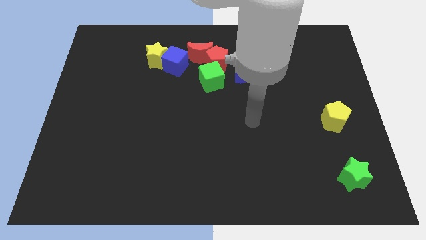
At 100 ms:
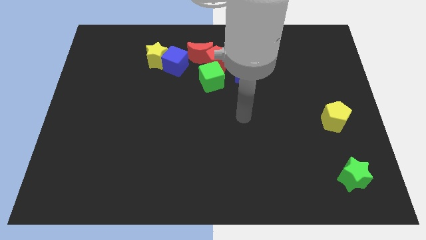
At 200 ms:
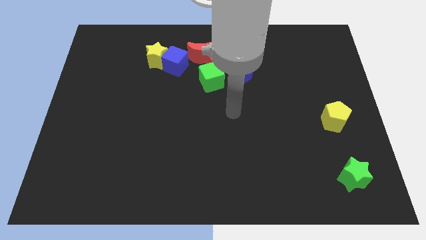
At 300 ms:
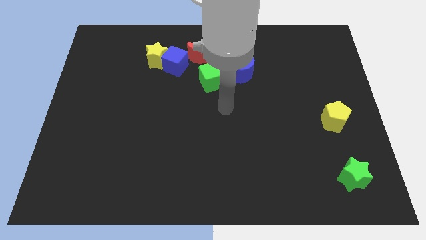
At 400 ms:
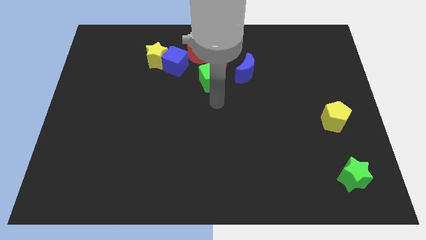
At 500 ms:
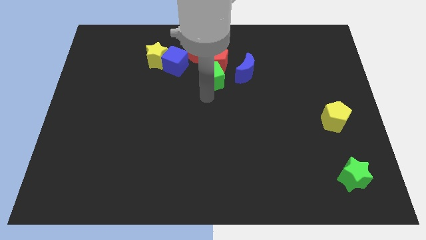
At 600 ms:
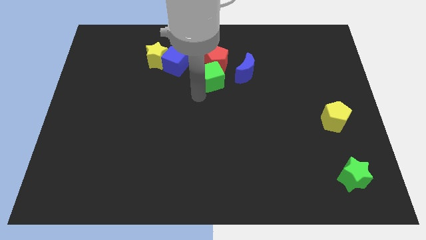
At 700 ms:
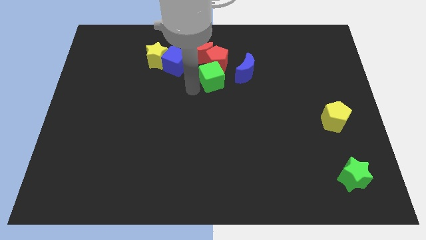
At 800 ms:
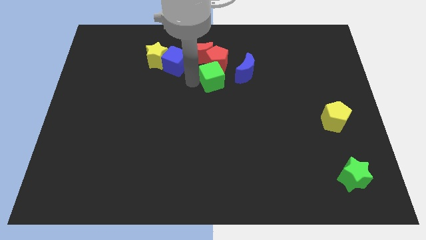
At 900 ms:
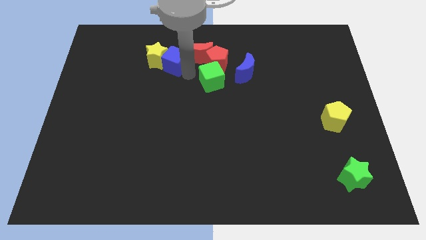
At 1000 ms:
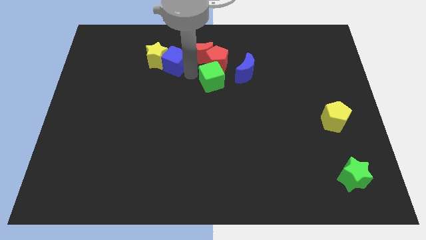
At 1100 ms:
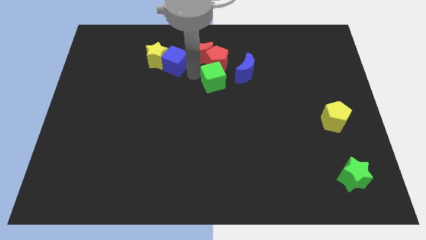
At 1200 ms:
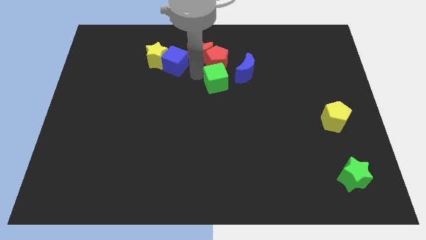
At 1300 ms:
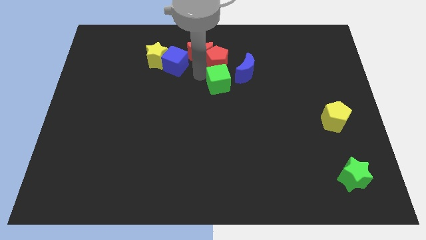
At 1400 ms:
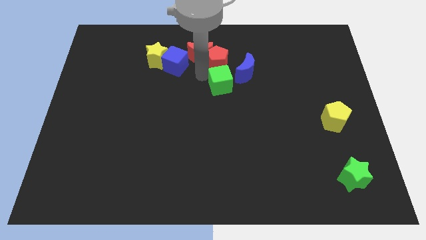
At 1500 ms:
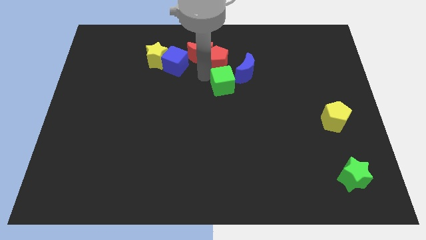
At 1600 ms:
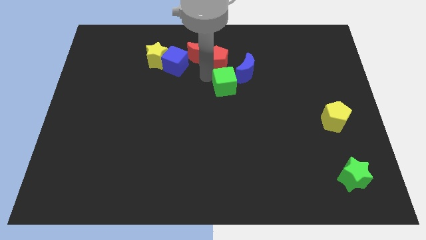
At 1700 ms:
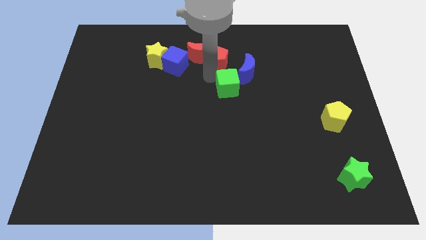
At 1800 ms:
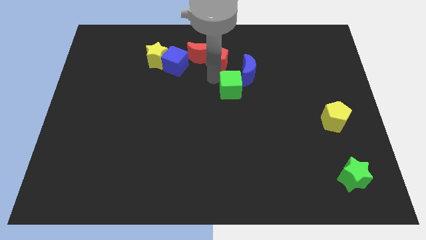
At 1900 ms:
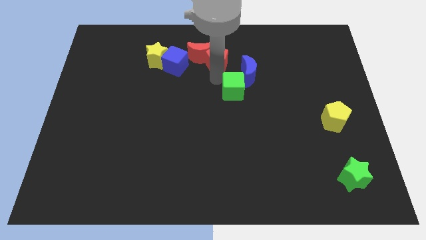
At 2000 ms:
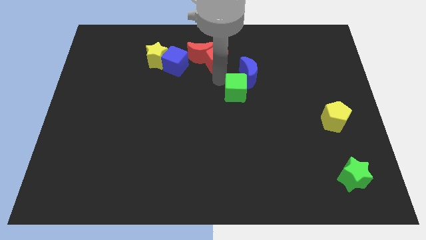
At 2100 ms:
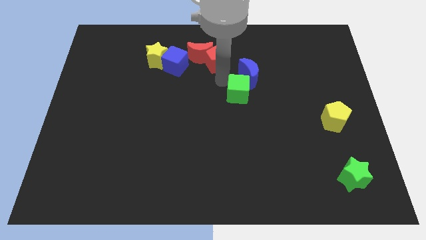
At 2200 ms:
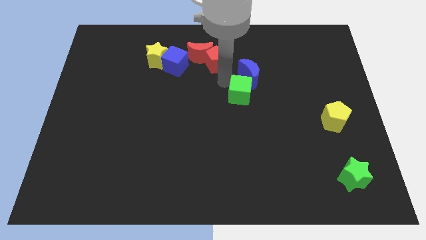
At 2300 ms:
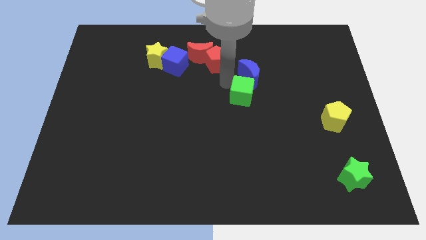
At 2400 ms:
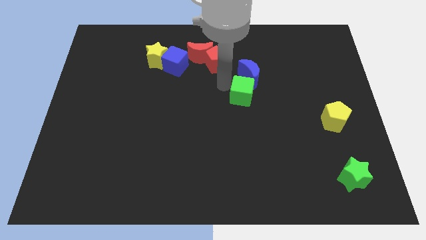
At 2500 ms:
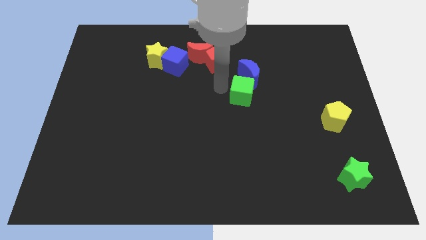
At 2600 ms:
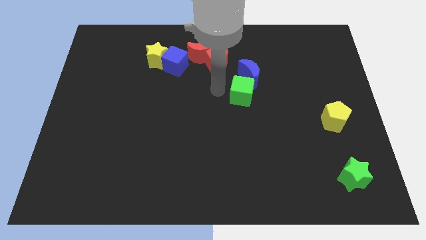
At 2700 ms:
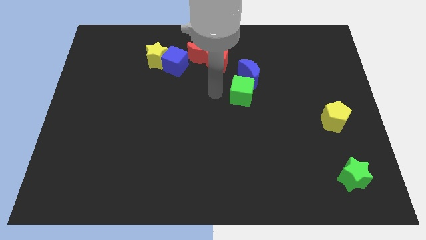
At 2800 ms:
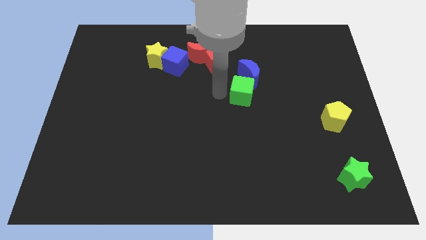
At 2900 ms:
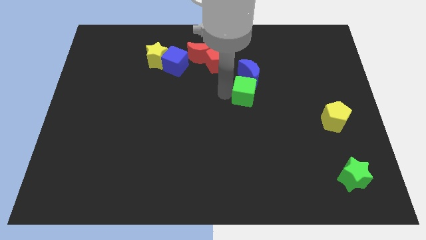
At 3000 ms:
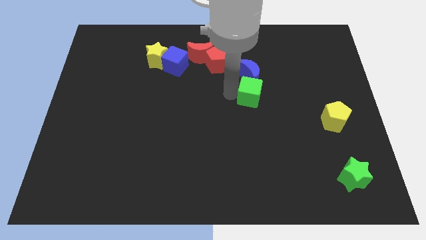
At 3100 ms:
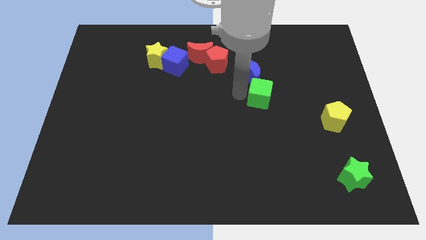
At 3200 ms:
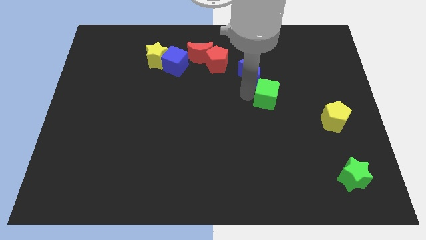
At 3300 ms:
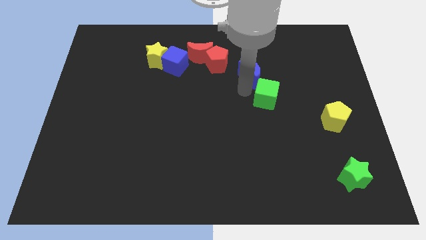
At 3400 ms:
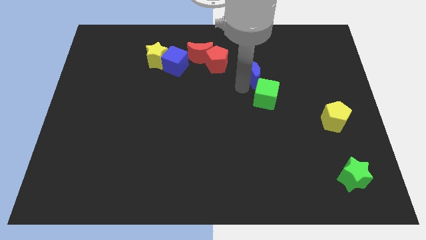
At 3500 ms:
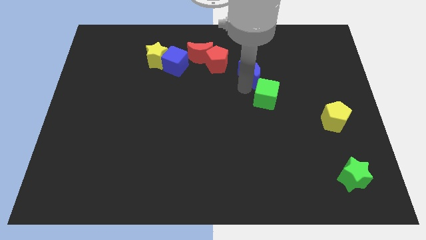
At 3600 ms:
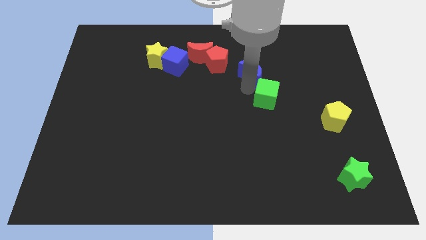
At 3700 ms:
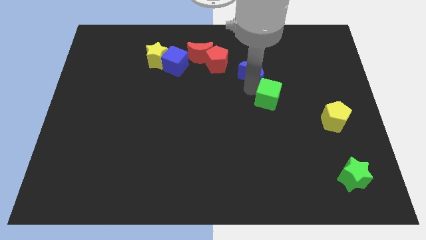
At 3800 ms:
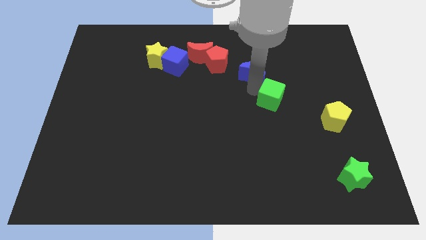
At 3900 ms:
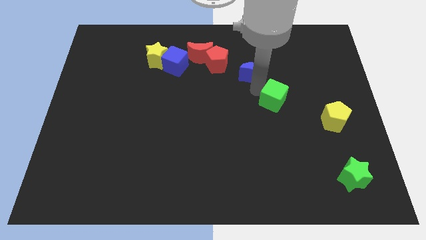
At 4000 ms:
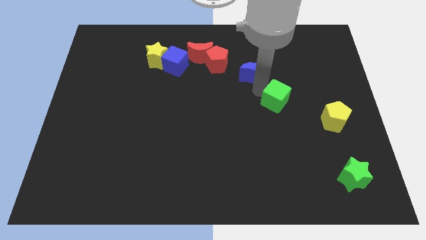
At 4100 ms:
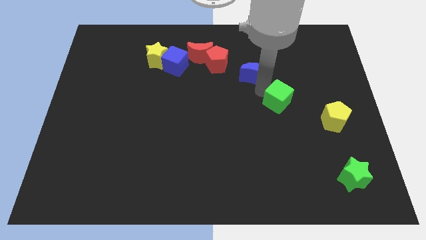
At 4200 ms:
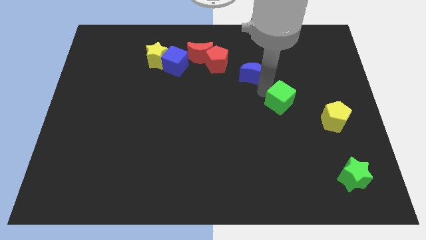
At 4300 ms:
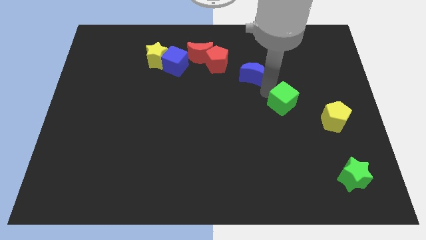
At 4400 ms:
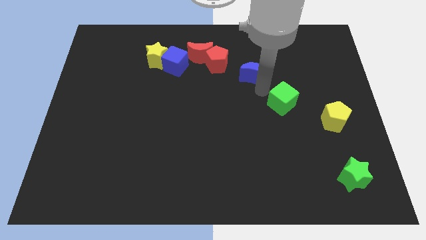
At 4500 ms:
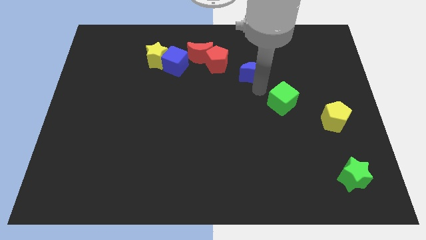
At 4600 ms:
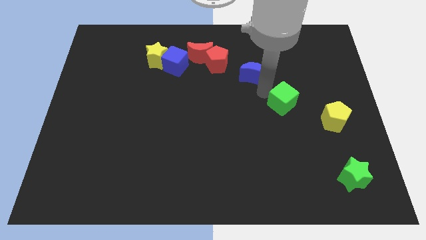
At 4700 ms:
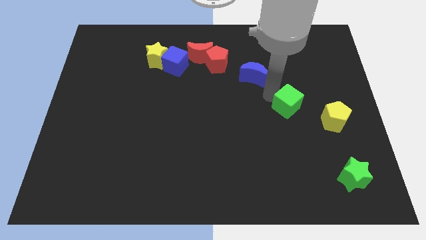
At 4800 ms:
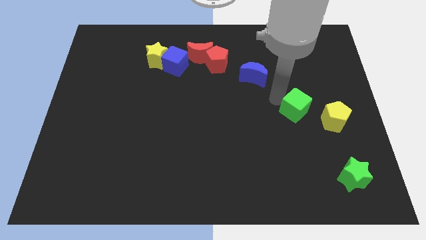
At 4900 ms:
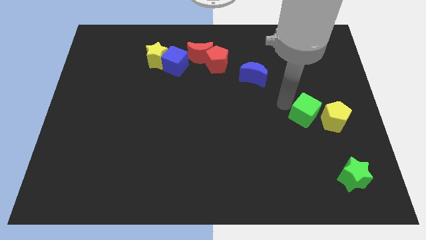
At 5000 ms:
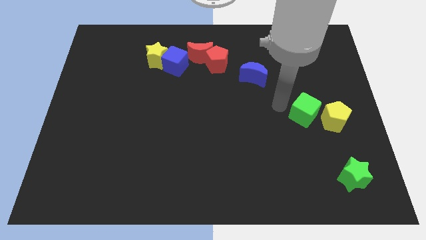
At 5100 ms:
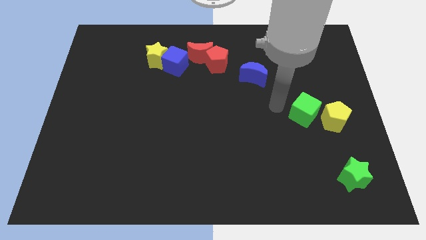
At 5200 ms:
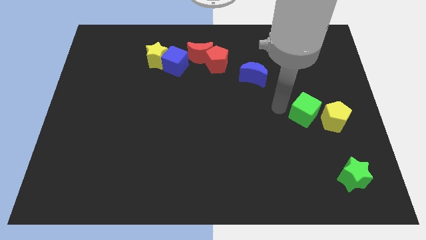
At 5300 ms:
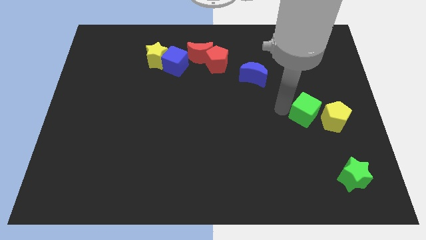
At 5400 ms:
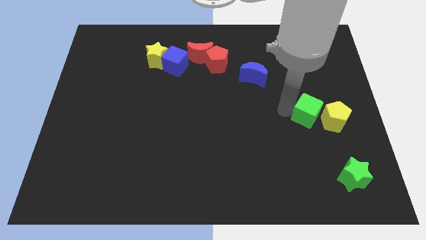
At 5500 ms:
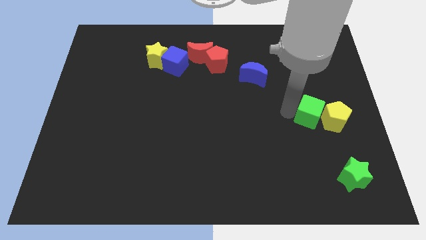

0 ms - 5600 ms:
slide the green cube to the yellow pentagon
